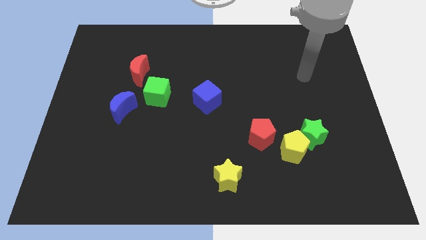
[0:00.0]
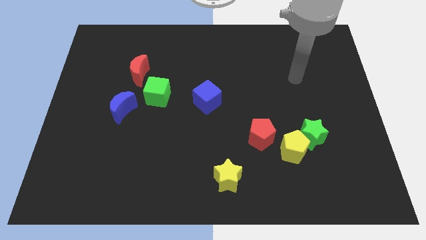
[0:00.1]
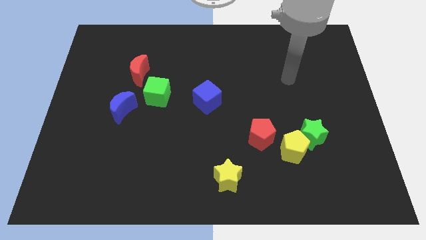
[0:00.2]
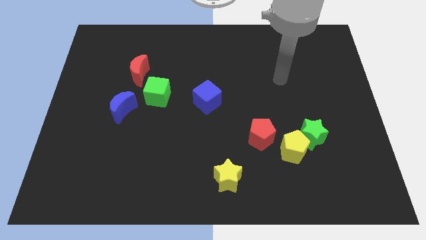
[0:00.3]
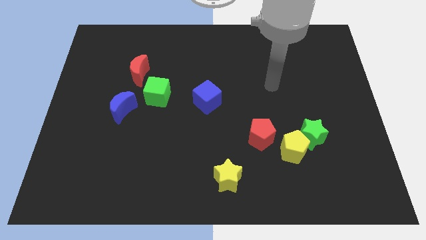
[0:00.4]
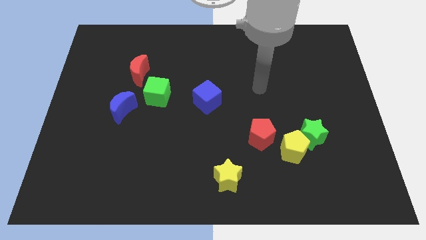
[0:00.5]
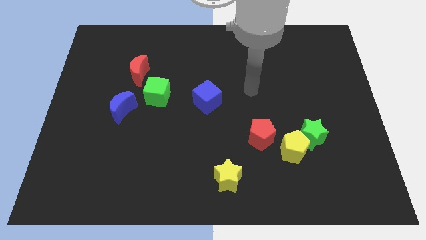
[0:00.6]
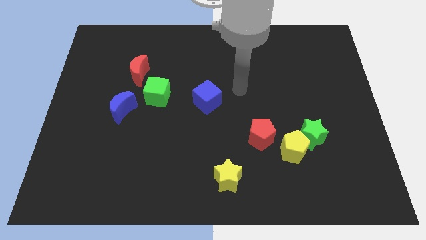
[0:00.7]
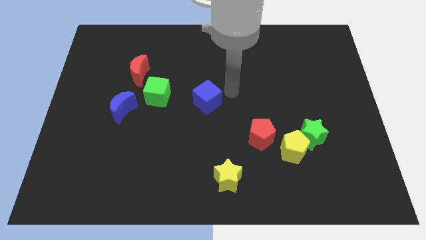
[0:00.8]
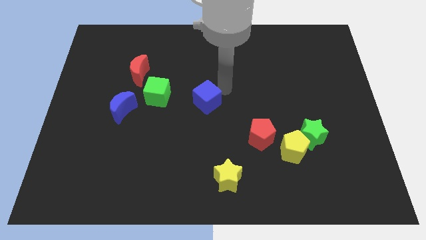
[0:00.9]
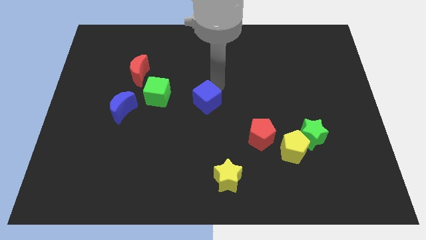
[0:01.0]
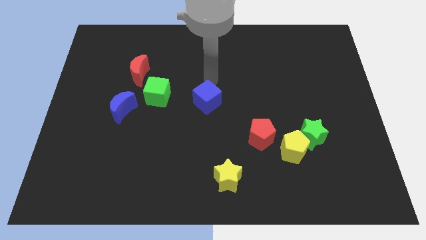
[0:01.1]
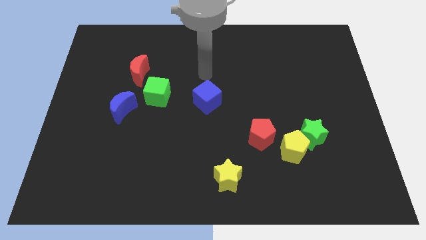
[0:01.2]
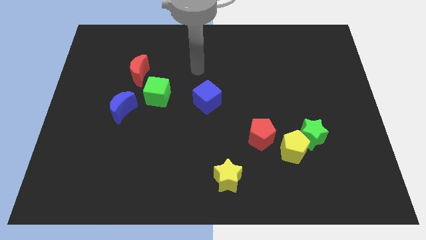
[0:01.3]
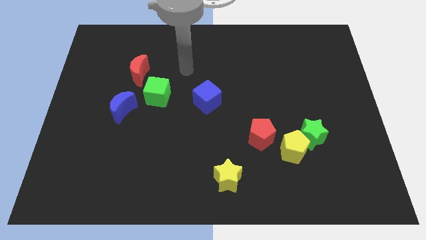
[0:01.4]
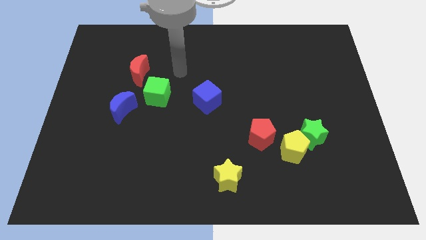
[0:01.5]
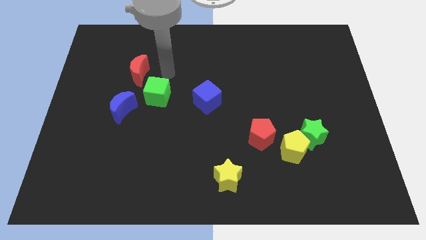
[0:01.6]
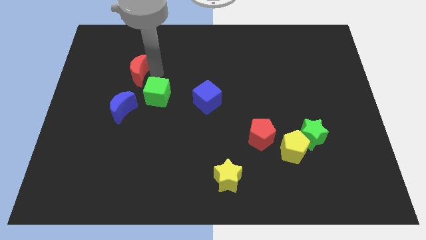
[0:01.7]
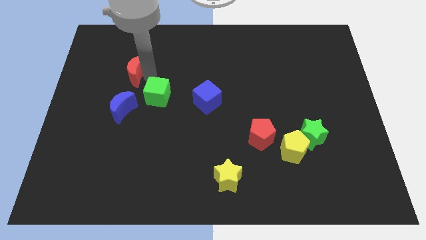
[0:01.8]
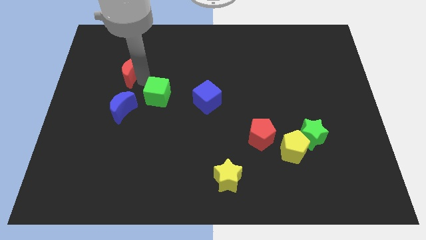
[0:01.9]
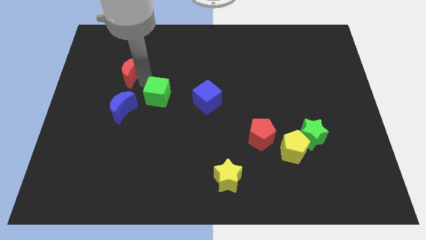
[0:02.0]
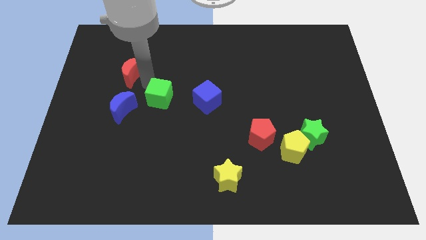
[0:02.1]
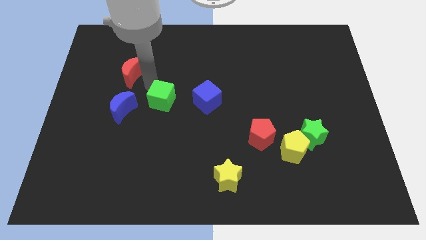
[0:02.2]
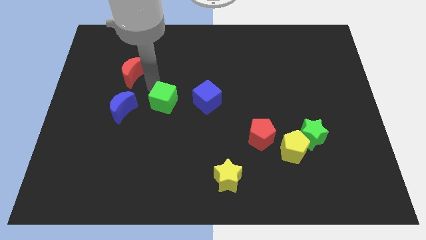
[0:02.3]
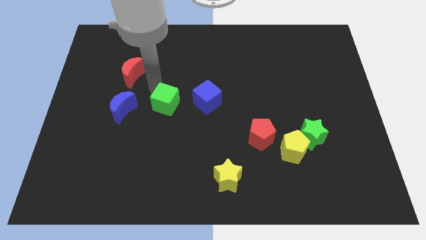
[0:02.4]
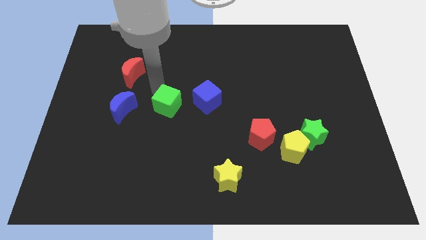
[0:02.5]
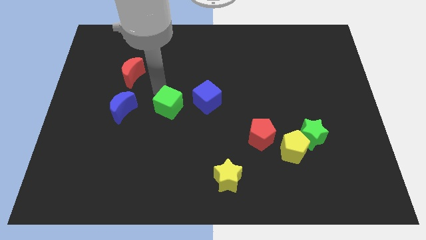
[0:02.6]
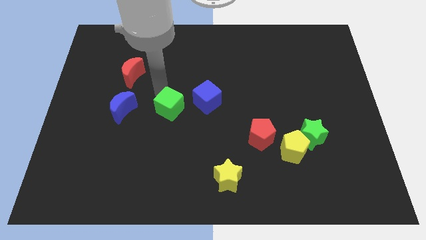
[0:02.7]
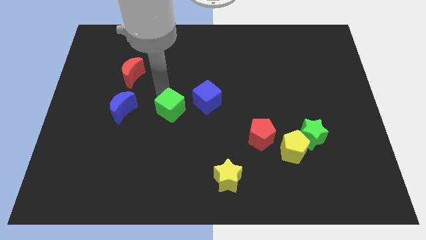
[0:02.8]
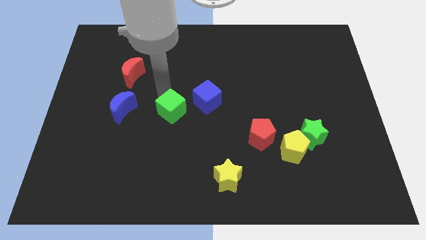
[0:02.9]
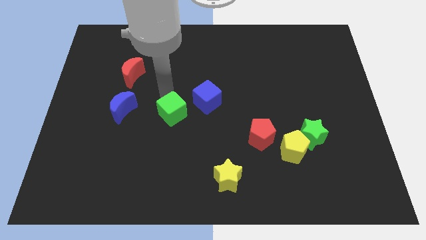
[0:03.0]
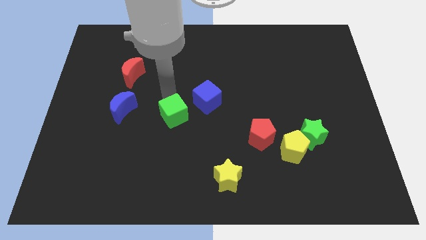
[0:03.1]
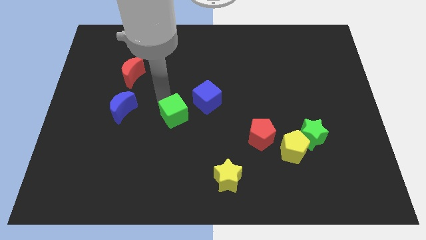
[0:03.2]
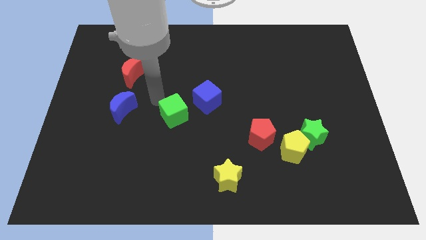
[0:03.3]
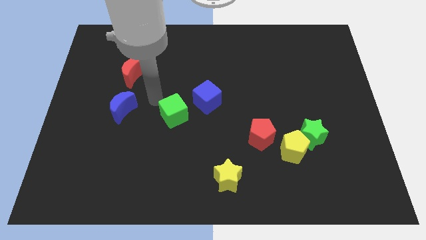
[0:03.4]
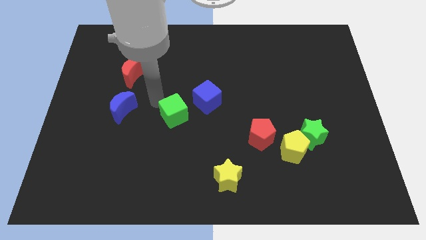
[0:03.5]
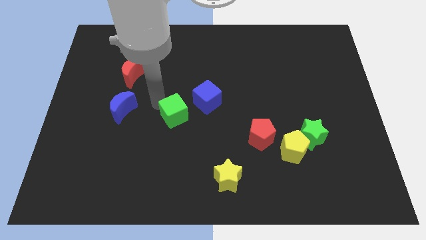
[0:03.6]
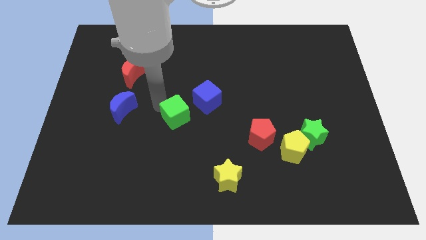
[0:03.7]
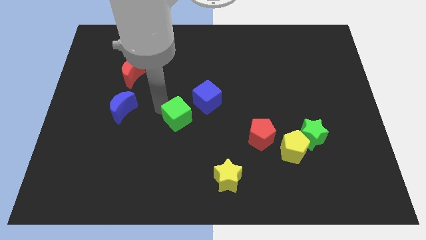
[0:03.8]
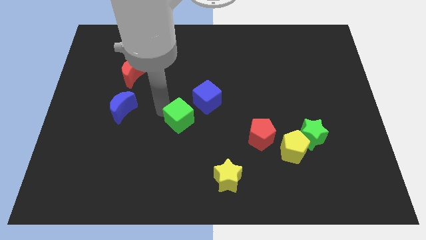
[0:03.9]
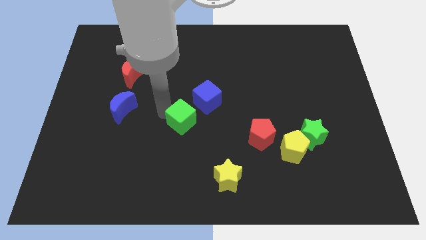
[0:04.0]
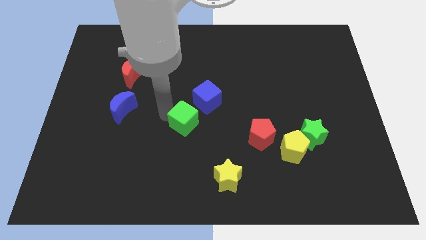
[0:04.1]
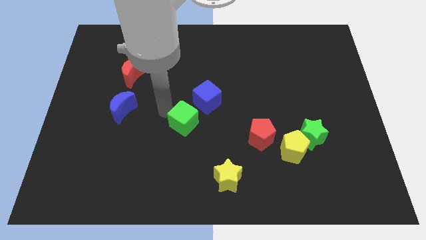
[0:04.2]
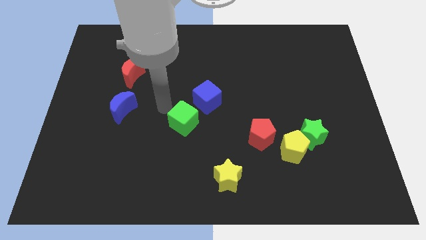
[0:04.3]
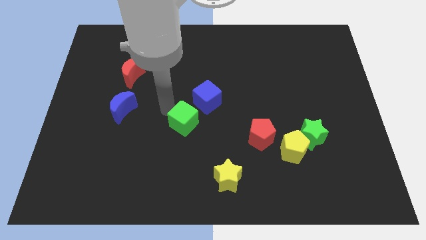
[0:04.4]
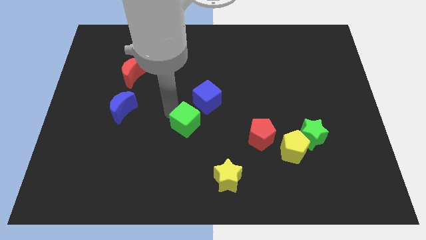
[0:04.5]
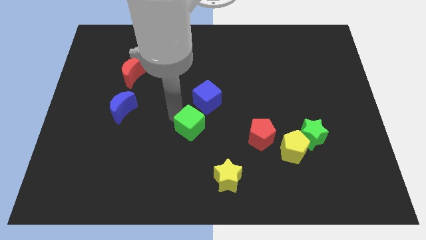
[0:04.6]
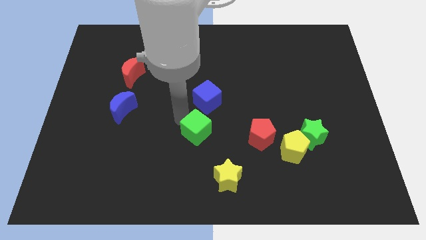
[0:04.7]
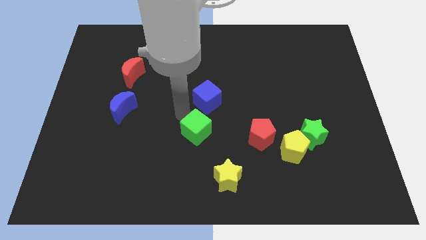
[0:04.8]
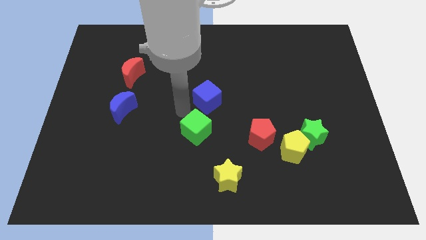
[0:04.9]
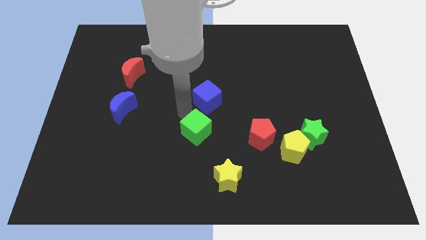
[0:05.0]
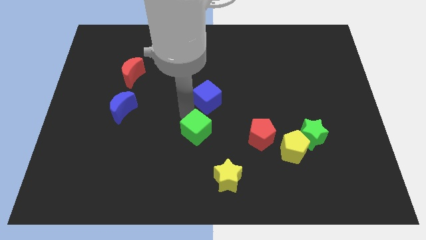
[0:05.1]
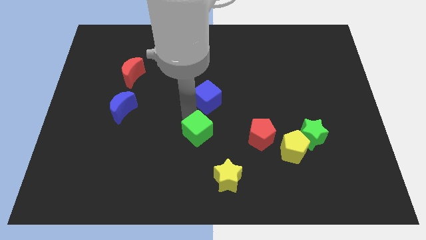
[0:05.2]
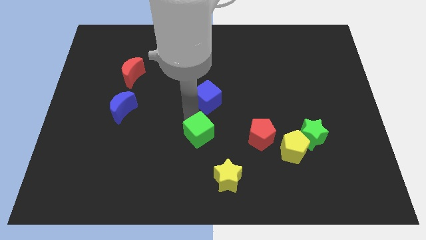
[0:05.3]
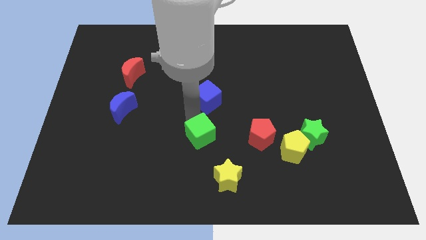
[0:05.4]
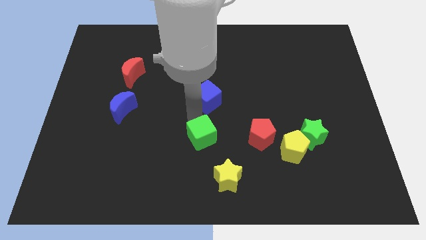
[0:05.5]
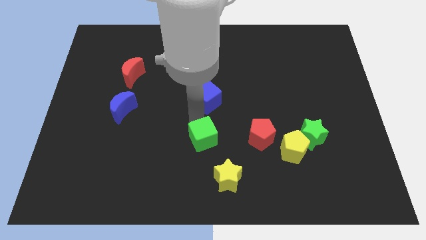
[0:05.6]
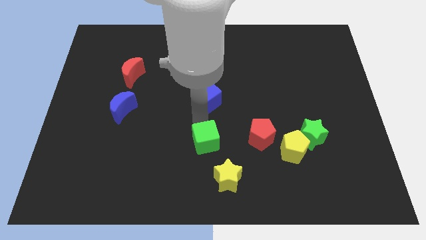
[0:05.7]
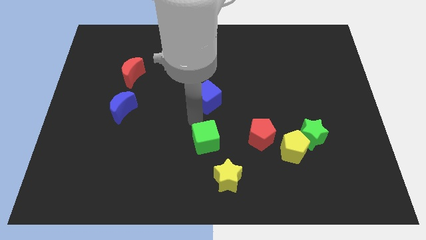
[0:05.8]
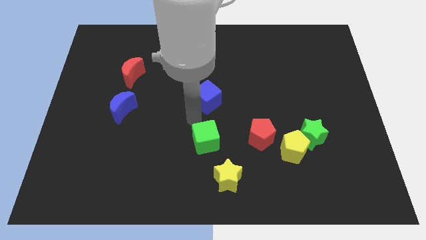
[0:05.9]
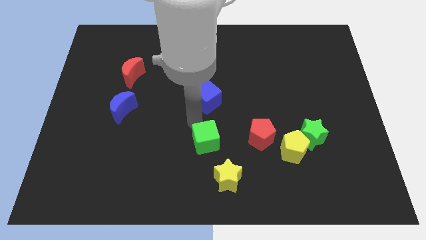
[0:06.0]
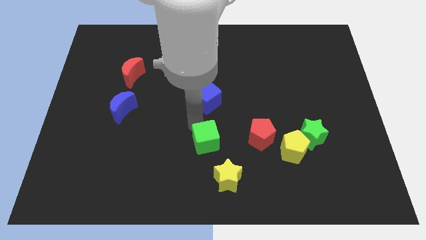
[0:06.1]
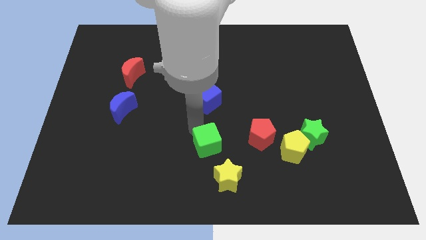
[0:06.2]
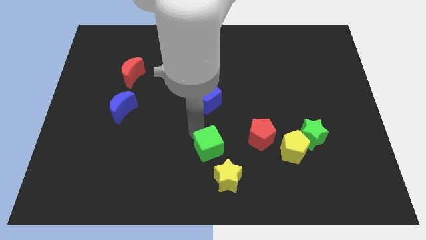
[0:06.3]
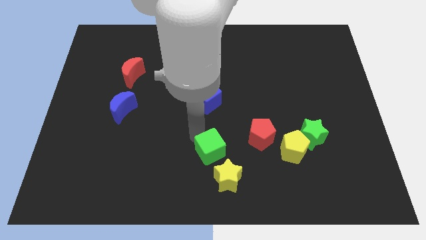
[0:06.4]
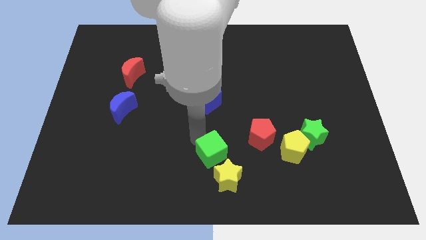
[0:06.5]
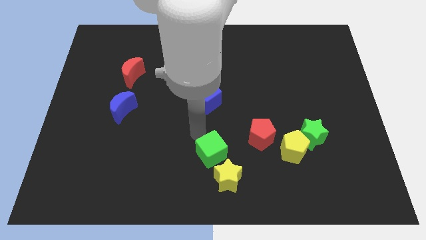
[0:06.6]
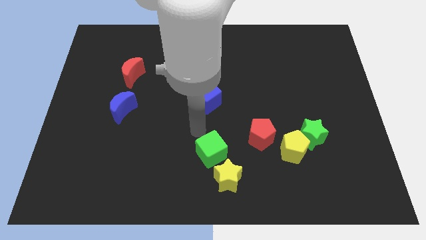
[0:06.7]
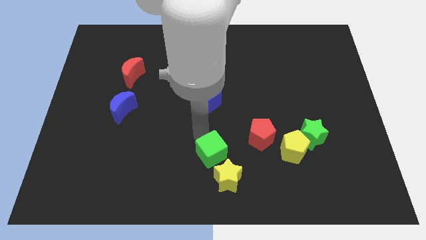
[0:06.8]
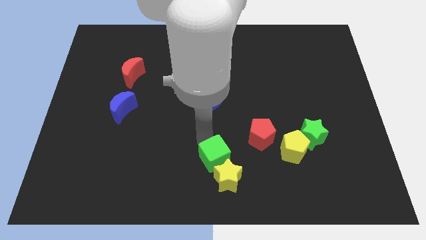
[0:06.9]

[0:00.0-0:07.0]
slide the green cube towards the yellow star
